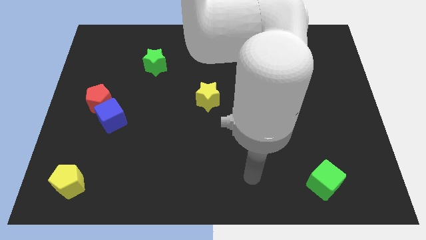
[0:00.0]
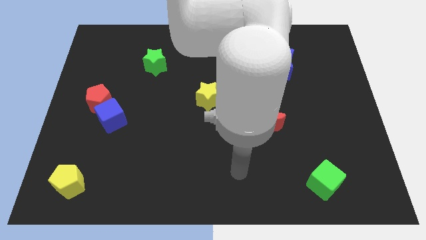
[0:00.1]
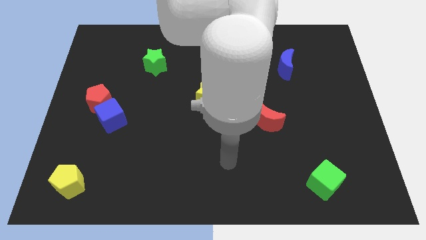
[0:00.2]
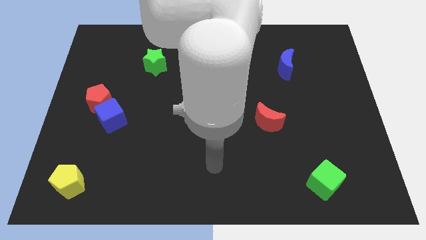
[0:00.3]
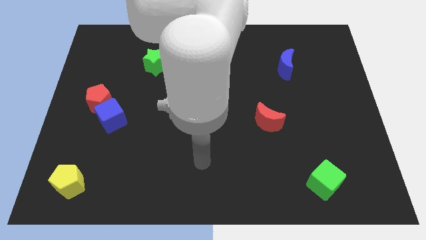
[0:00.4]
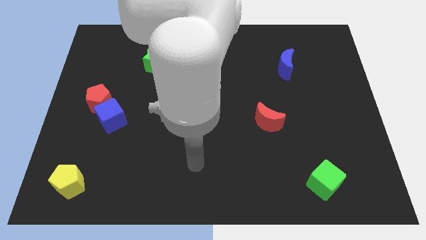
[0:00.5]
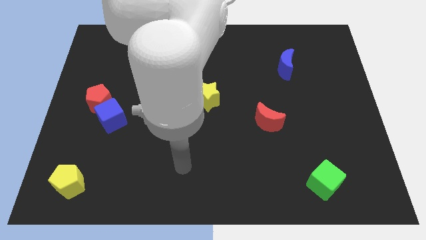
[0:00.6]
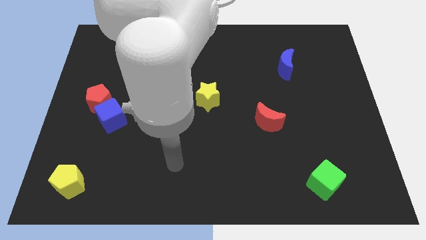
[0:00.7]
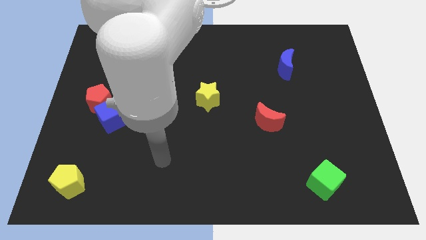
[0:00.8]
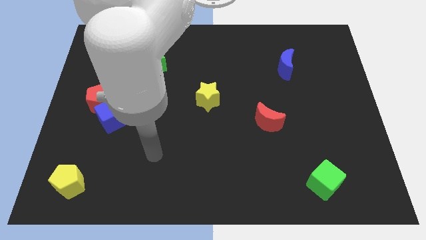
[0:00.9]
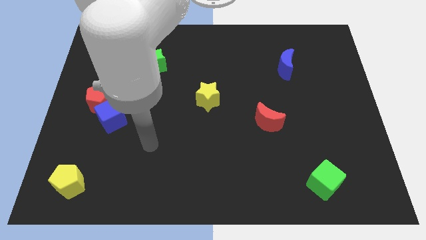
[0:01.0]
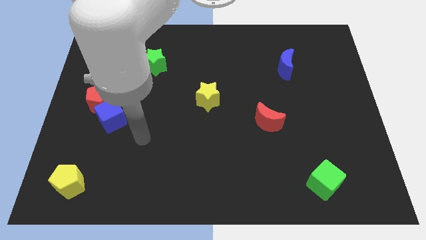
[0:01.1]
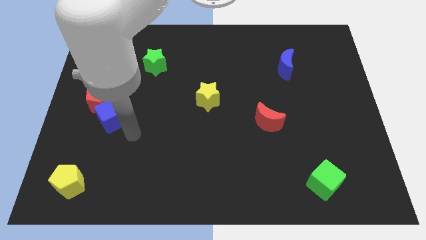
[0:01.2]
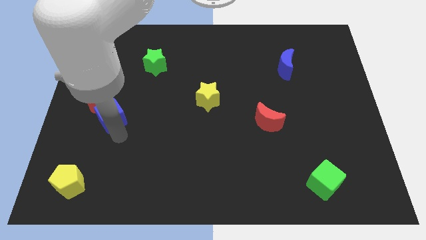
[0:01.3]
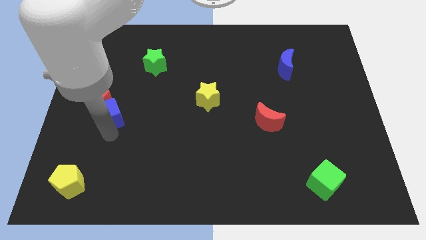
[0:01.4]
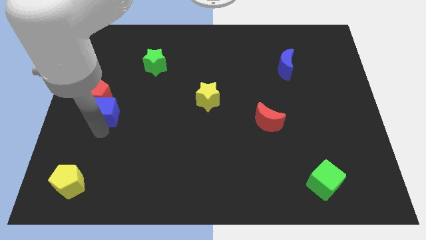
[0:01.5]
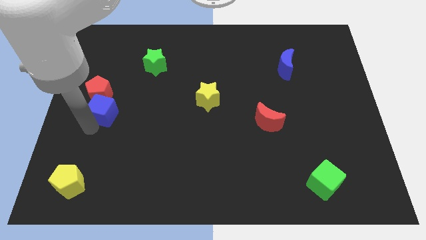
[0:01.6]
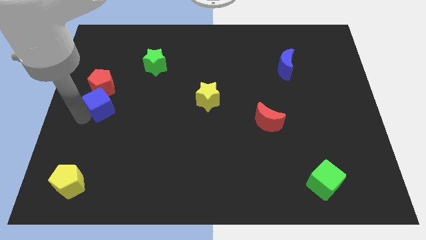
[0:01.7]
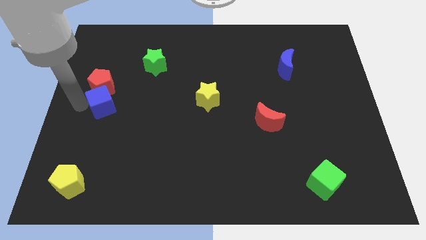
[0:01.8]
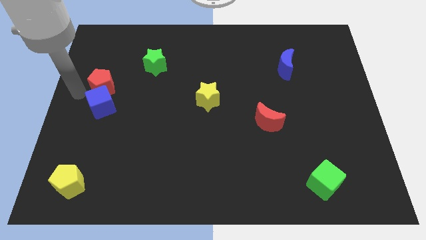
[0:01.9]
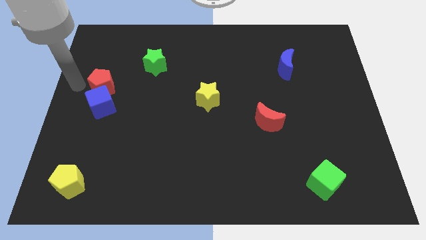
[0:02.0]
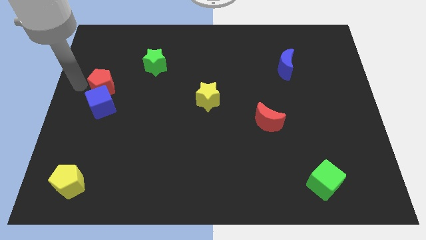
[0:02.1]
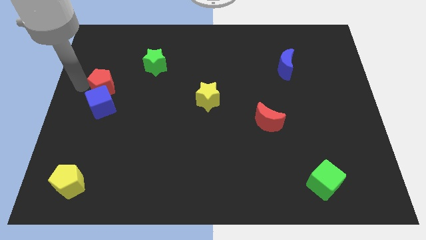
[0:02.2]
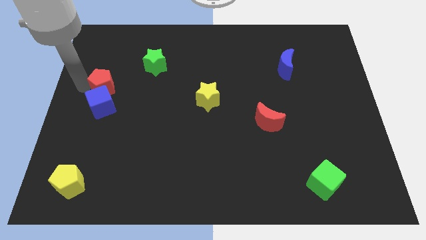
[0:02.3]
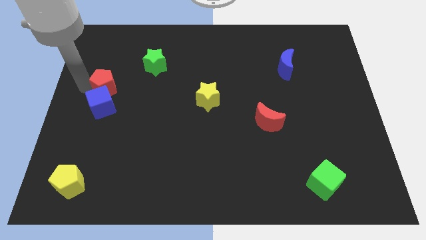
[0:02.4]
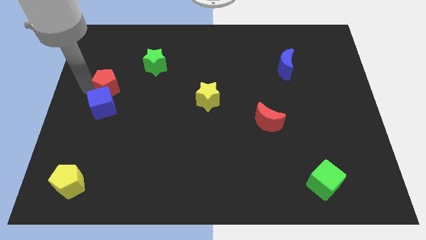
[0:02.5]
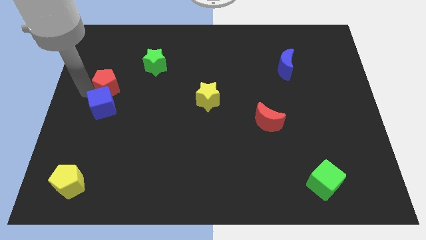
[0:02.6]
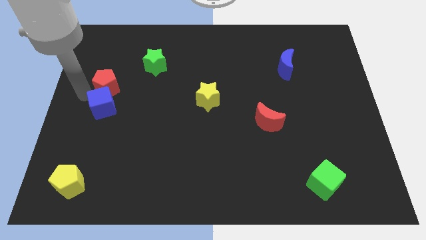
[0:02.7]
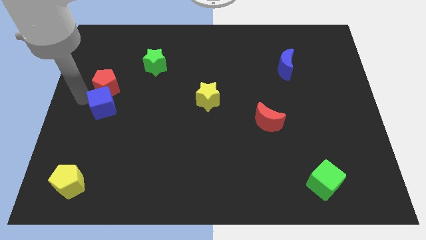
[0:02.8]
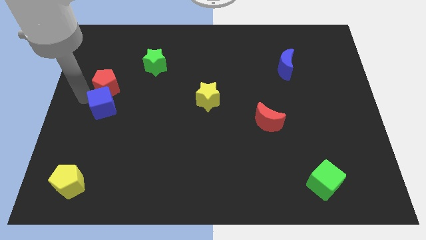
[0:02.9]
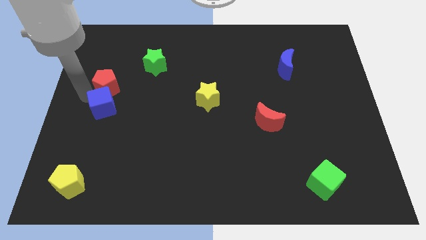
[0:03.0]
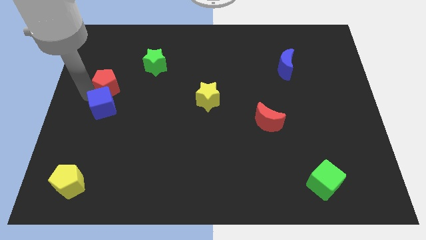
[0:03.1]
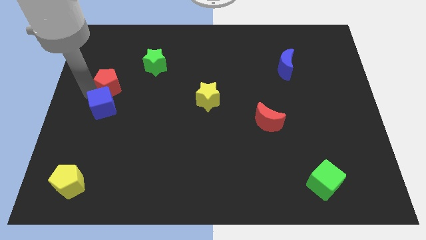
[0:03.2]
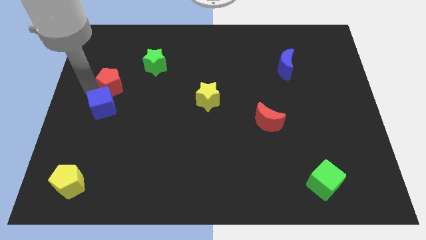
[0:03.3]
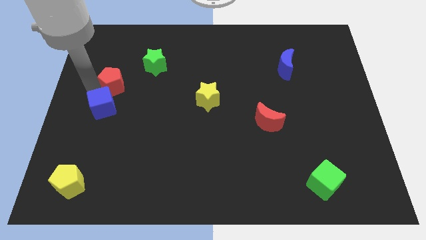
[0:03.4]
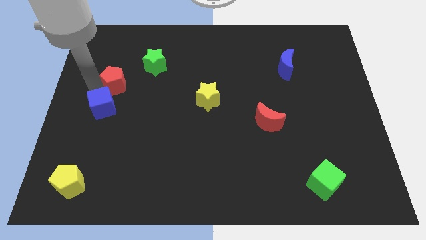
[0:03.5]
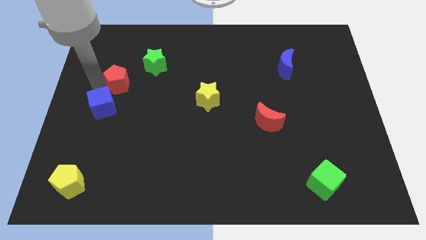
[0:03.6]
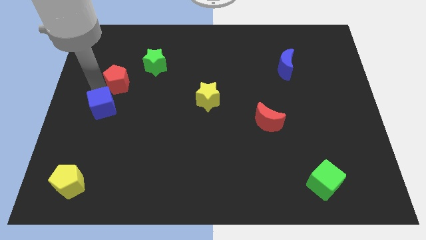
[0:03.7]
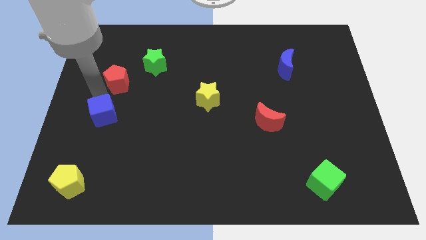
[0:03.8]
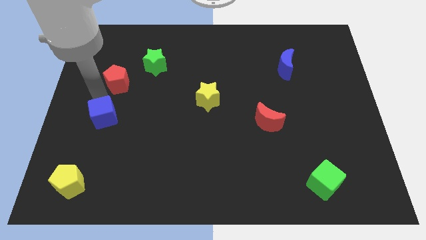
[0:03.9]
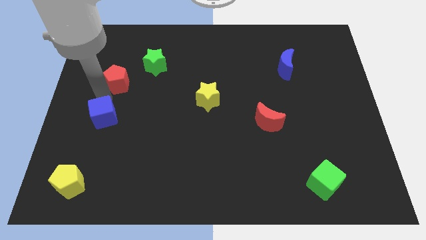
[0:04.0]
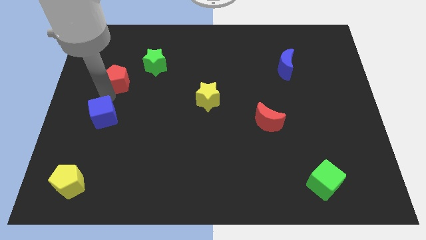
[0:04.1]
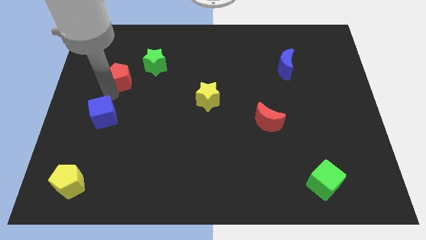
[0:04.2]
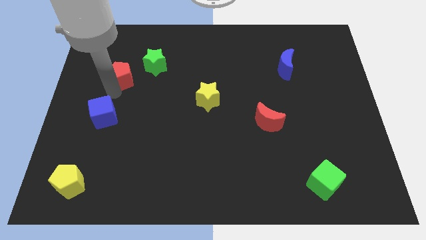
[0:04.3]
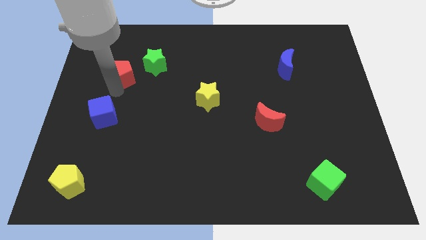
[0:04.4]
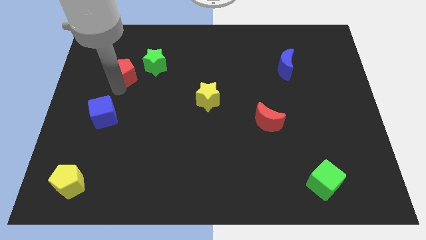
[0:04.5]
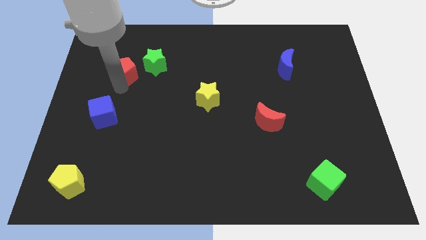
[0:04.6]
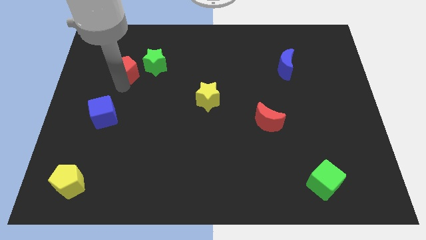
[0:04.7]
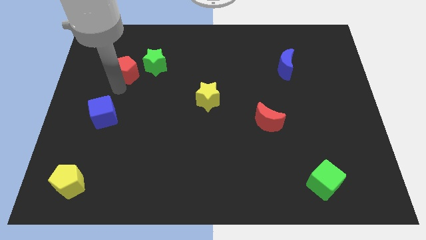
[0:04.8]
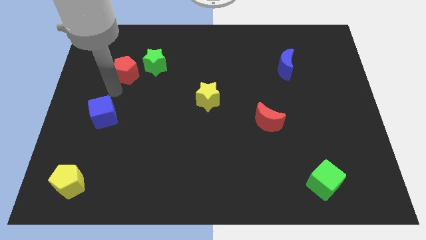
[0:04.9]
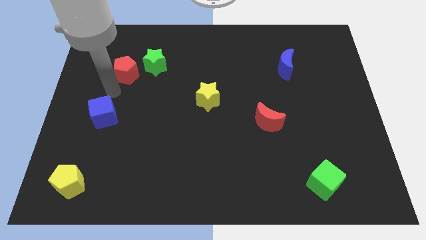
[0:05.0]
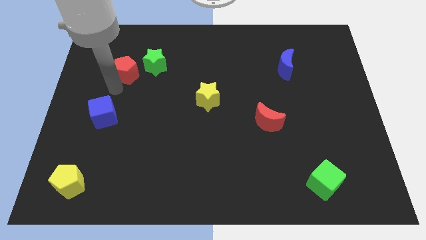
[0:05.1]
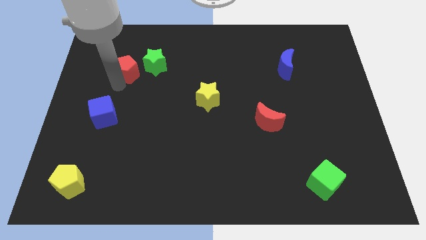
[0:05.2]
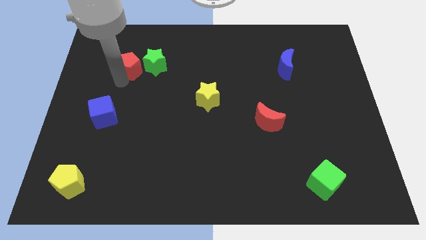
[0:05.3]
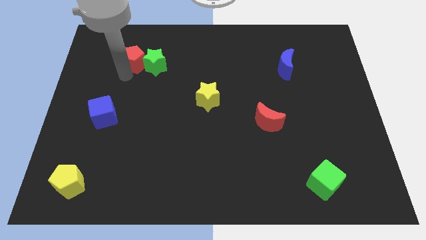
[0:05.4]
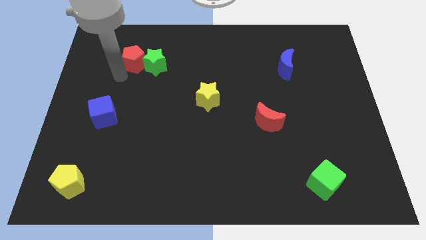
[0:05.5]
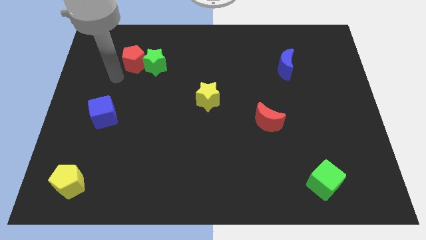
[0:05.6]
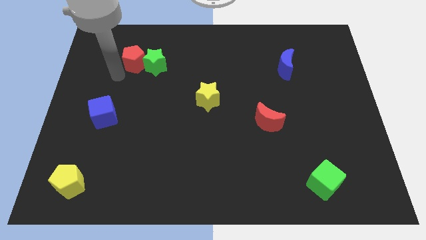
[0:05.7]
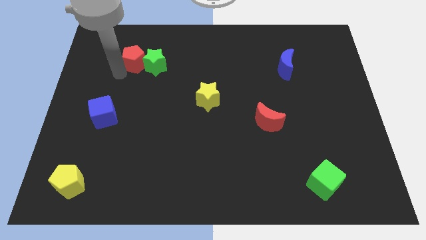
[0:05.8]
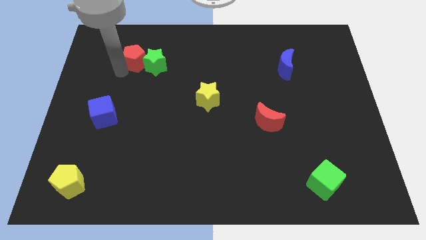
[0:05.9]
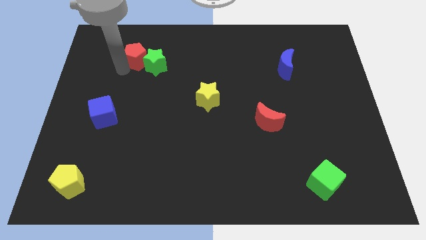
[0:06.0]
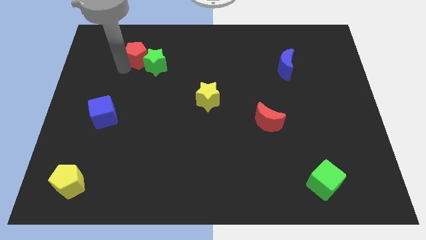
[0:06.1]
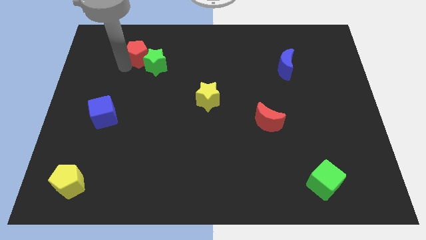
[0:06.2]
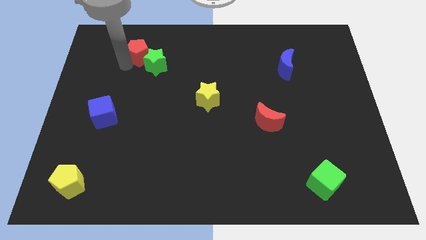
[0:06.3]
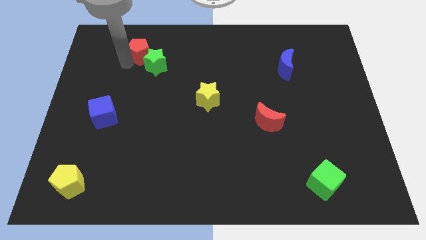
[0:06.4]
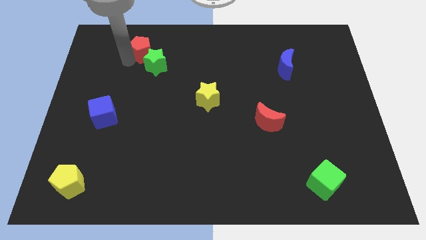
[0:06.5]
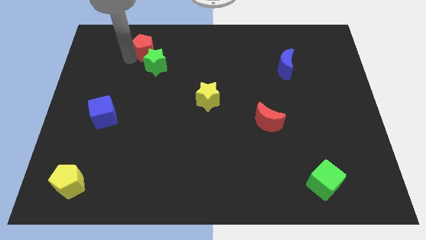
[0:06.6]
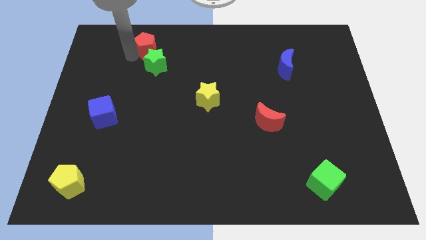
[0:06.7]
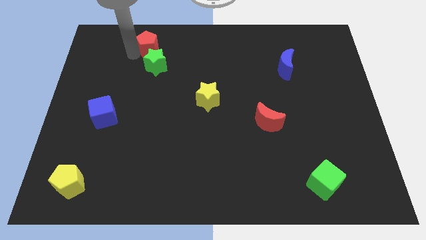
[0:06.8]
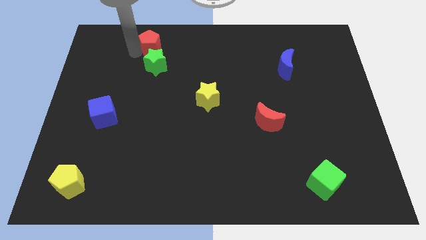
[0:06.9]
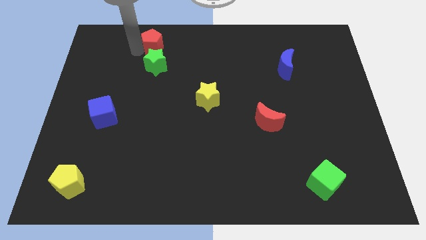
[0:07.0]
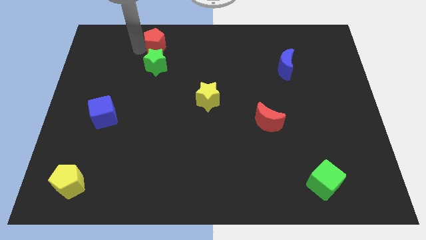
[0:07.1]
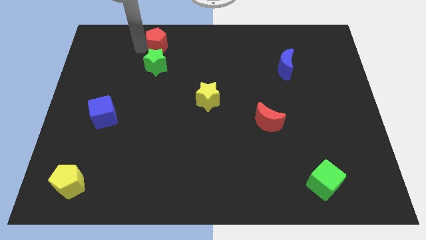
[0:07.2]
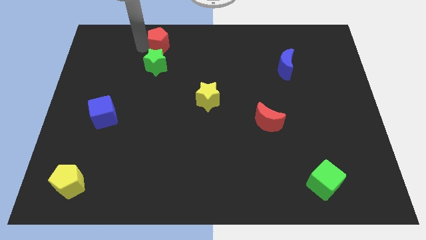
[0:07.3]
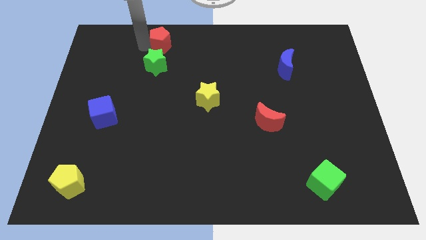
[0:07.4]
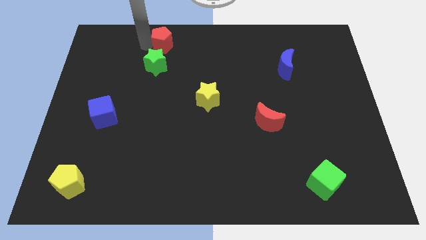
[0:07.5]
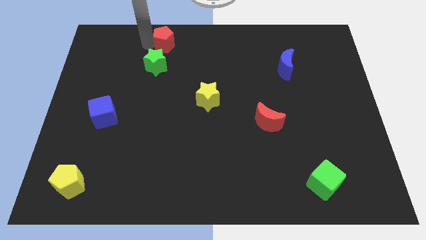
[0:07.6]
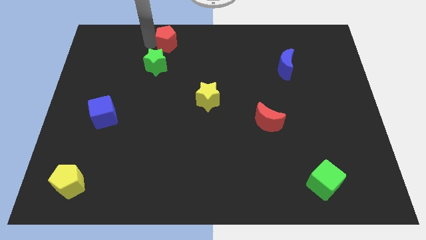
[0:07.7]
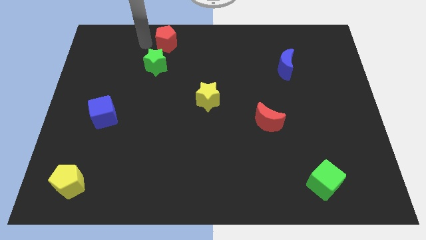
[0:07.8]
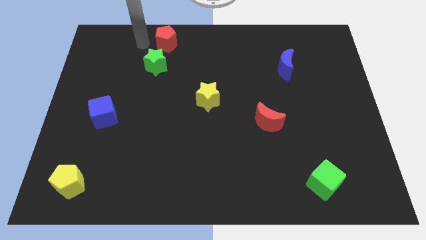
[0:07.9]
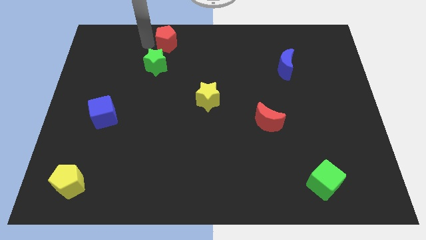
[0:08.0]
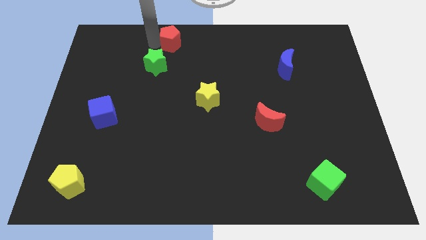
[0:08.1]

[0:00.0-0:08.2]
move the red pentagon to the top side
